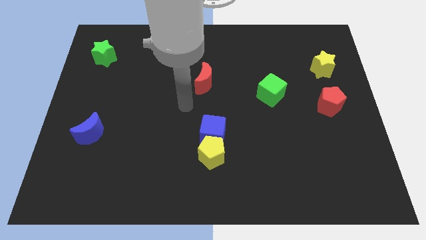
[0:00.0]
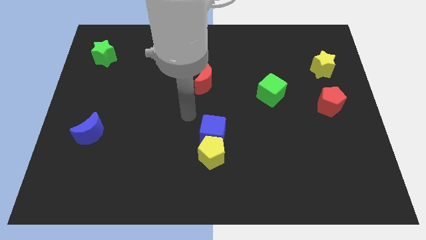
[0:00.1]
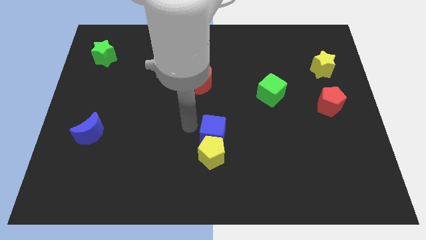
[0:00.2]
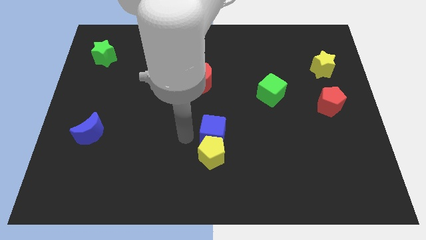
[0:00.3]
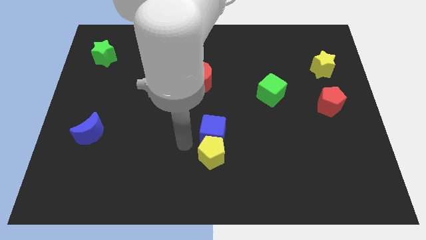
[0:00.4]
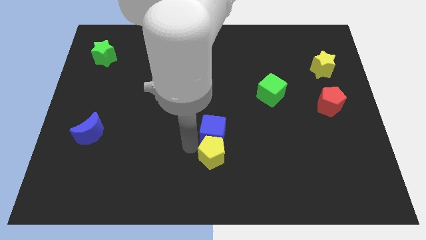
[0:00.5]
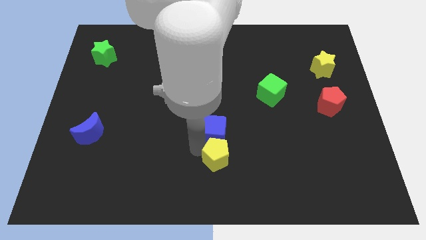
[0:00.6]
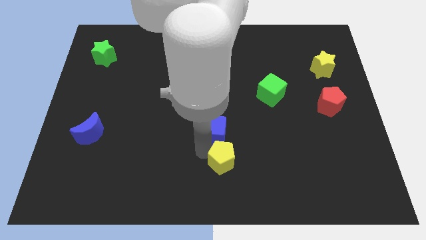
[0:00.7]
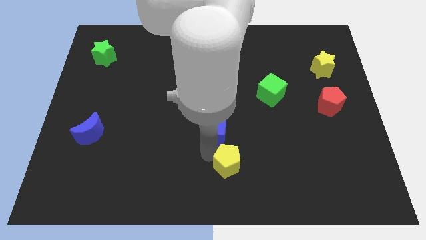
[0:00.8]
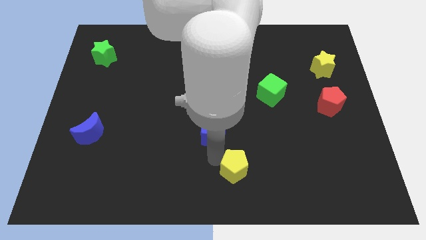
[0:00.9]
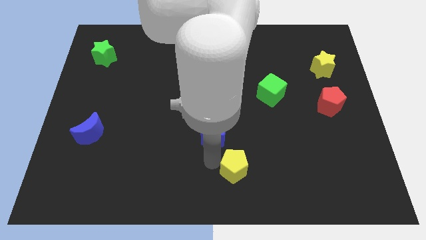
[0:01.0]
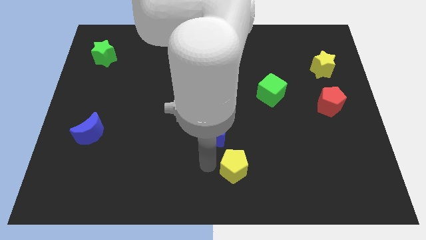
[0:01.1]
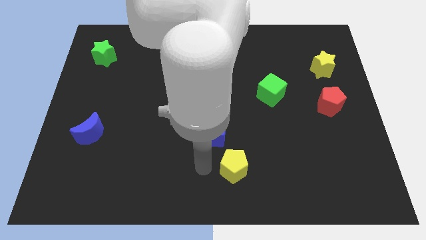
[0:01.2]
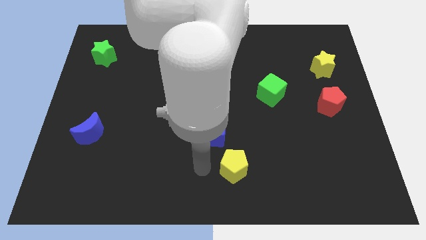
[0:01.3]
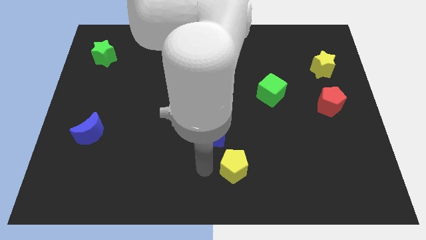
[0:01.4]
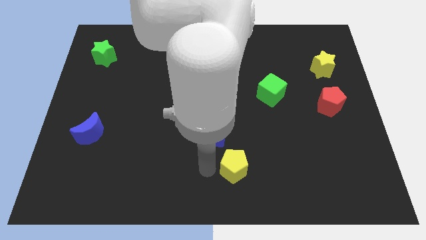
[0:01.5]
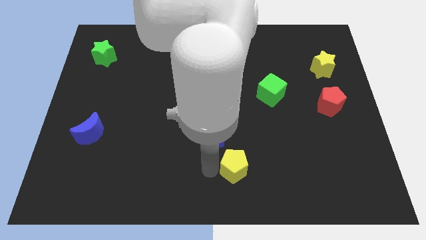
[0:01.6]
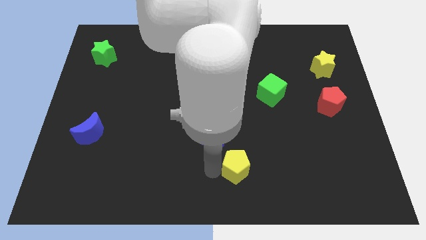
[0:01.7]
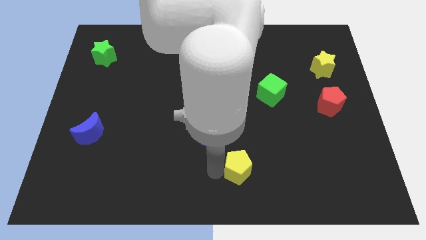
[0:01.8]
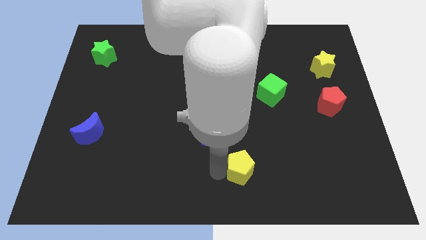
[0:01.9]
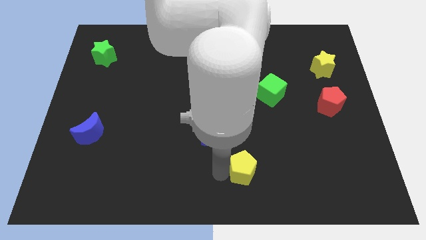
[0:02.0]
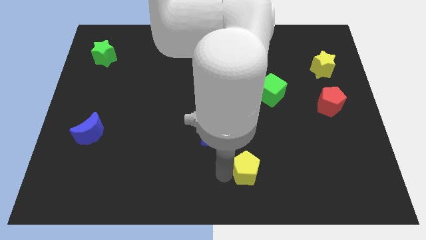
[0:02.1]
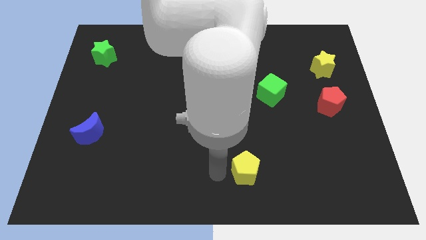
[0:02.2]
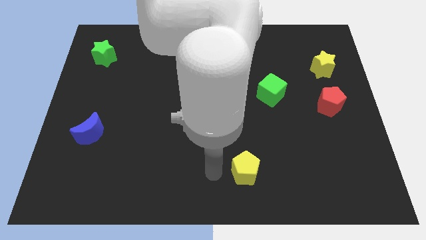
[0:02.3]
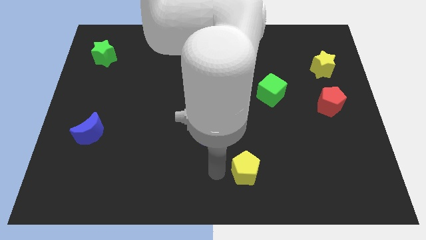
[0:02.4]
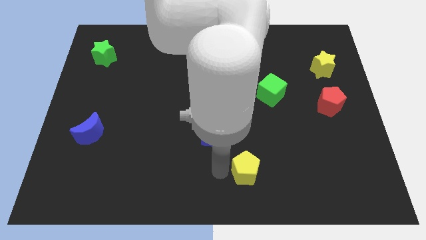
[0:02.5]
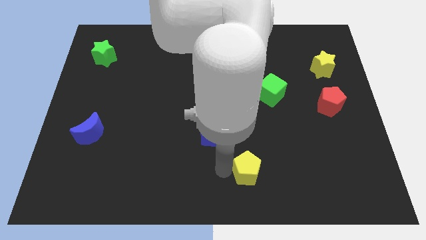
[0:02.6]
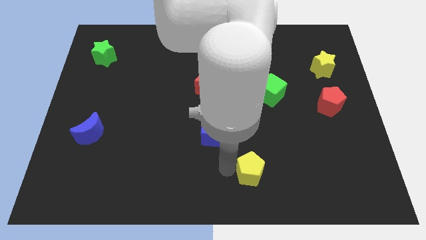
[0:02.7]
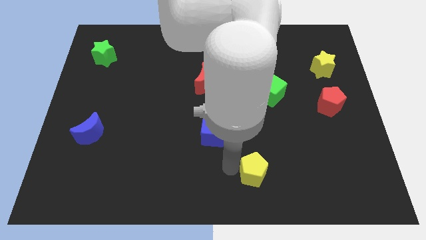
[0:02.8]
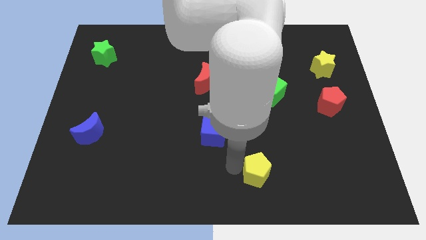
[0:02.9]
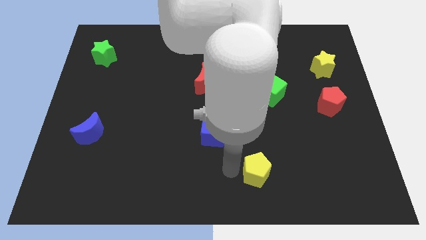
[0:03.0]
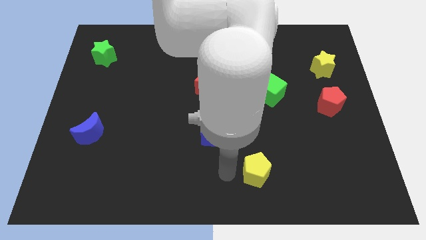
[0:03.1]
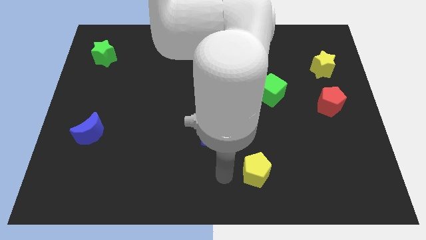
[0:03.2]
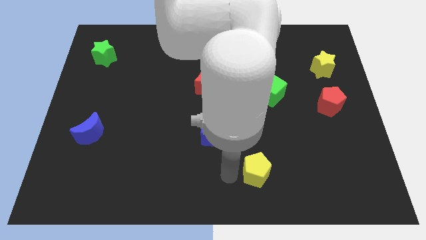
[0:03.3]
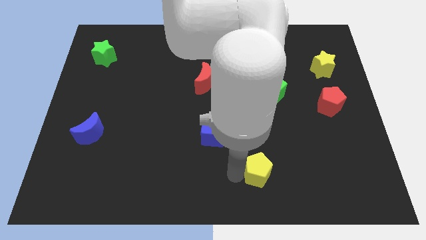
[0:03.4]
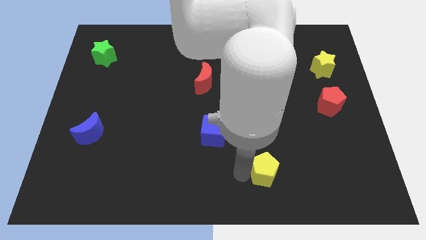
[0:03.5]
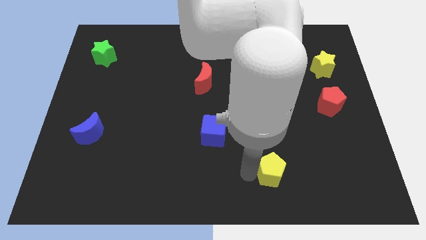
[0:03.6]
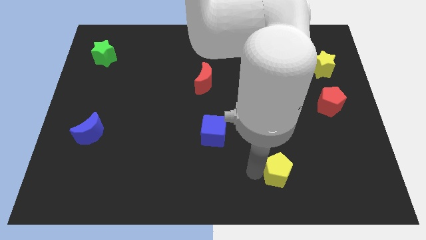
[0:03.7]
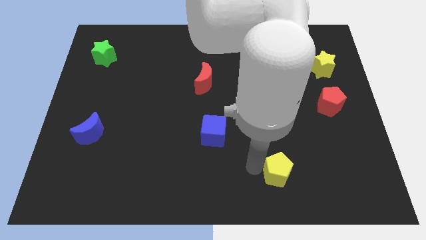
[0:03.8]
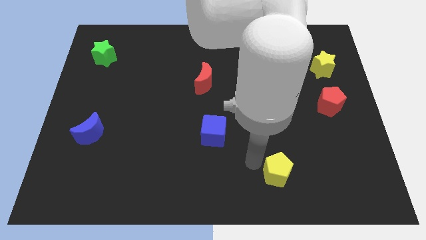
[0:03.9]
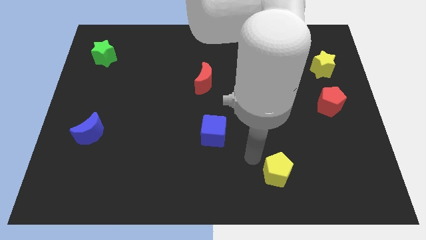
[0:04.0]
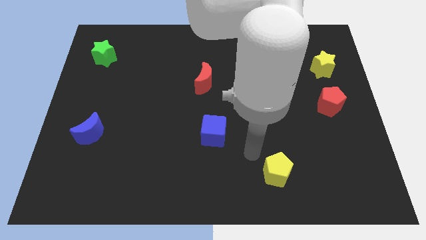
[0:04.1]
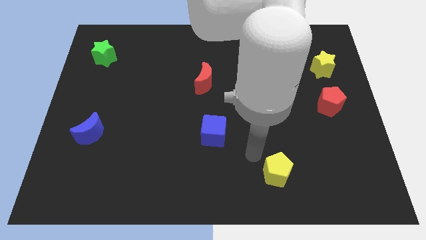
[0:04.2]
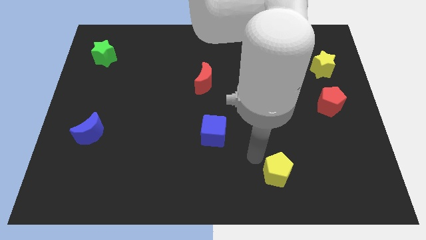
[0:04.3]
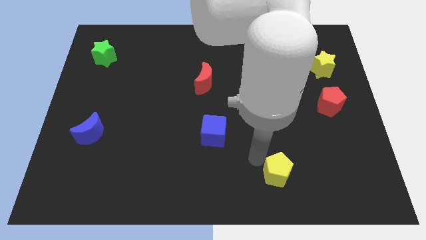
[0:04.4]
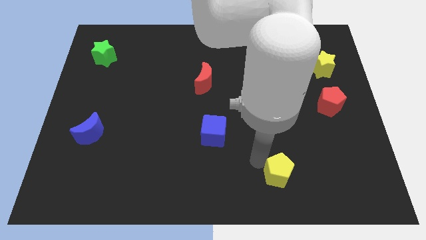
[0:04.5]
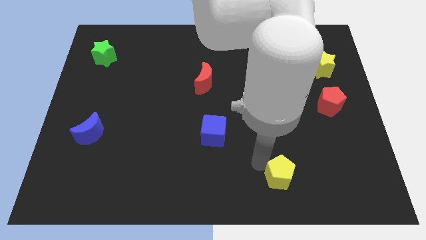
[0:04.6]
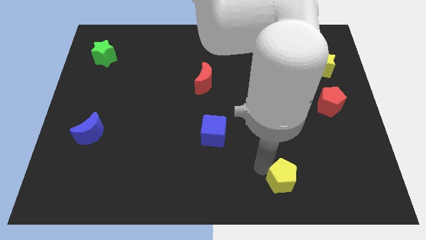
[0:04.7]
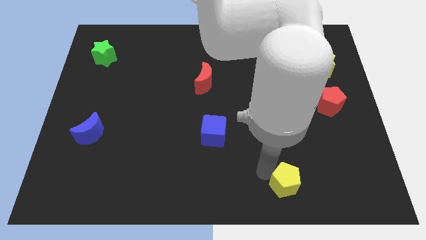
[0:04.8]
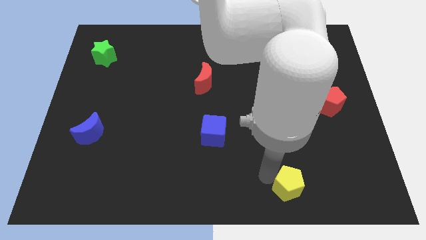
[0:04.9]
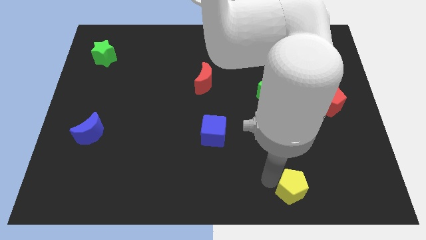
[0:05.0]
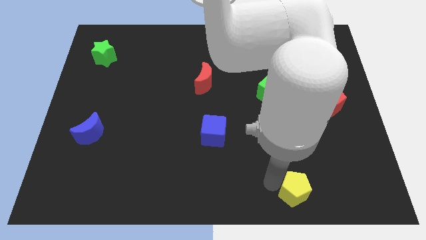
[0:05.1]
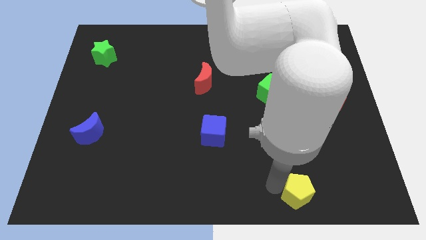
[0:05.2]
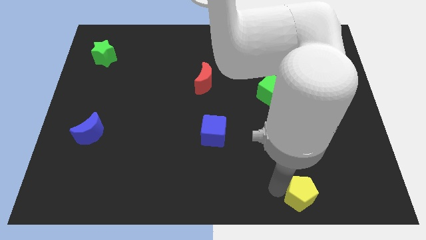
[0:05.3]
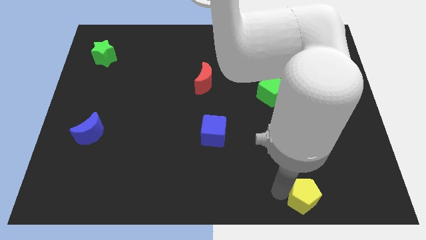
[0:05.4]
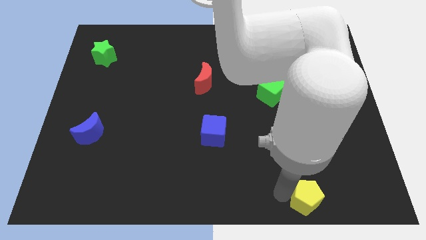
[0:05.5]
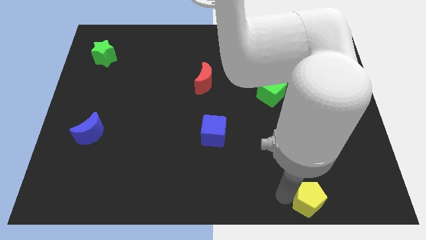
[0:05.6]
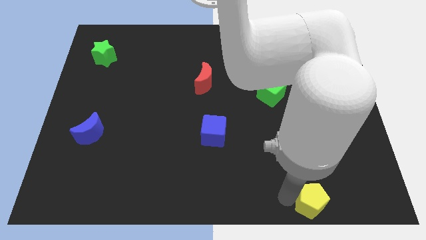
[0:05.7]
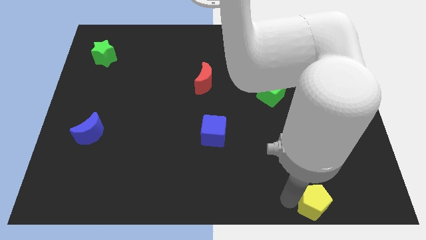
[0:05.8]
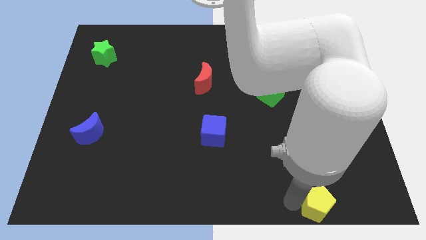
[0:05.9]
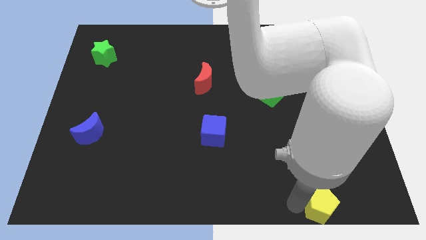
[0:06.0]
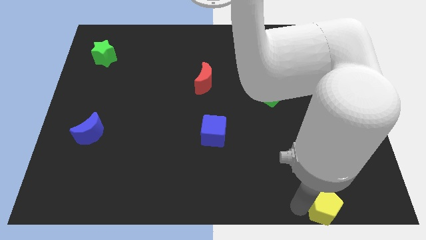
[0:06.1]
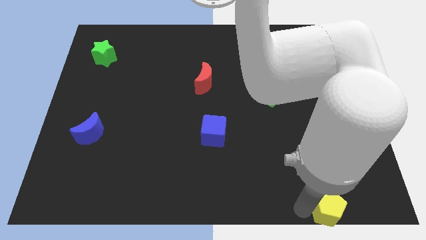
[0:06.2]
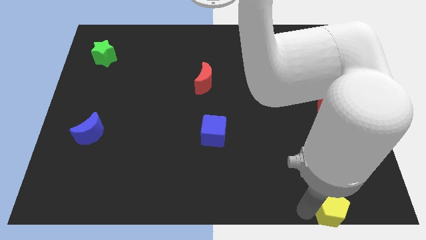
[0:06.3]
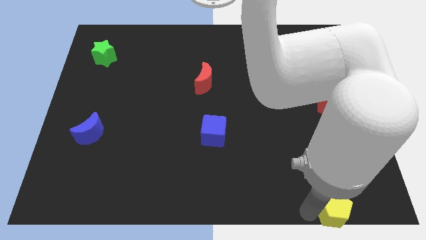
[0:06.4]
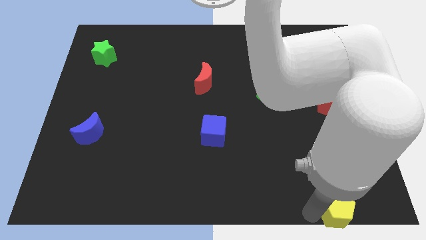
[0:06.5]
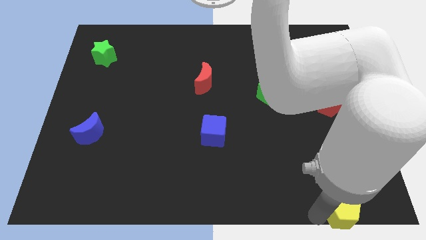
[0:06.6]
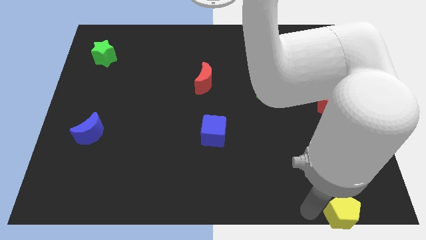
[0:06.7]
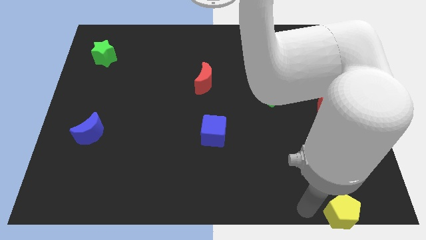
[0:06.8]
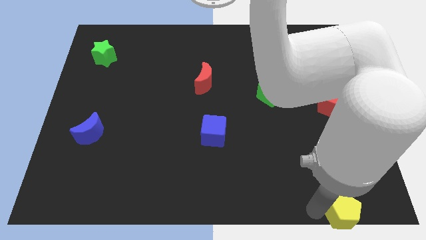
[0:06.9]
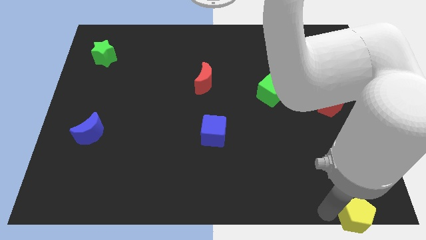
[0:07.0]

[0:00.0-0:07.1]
push the yellow pentagon to the lower right corner
